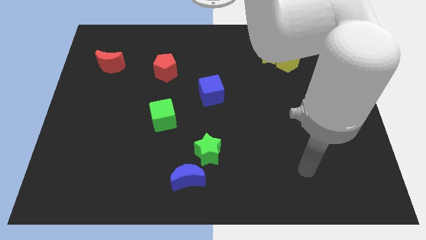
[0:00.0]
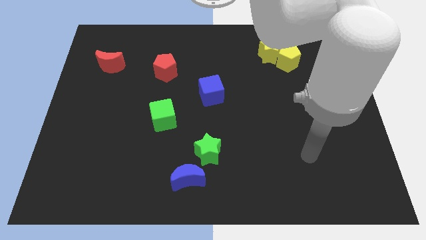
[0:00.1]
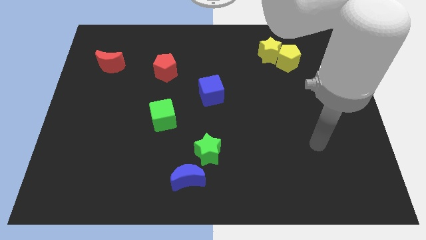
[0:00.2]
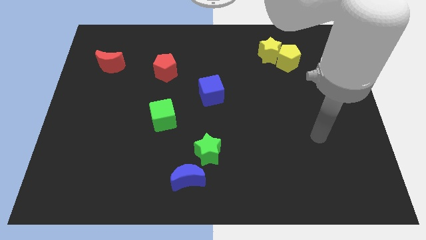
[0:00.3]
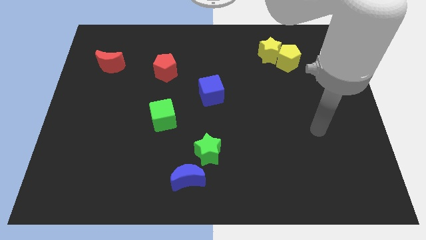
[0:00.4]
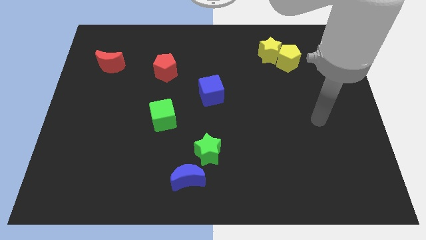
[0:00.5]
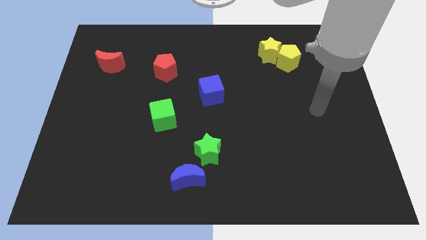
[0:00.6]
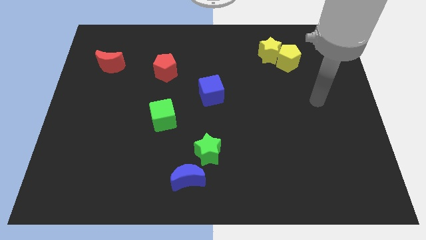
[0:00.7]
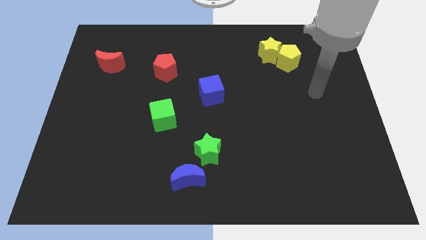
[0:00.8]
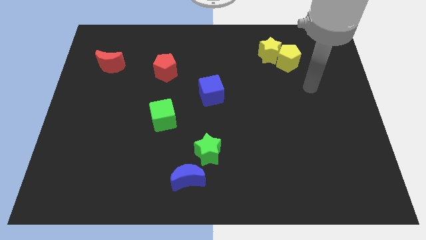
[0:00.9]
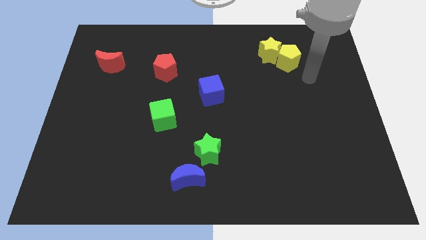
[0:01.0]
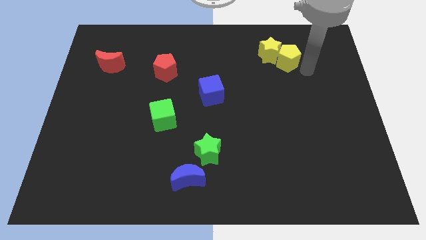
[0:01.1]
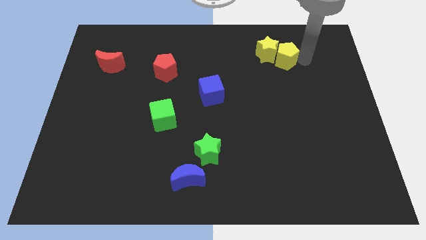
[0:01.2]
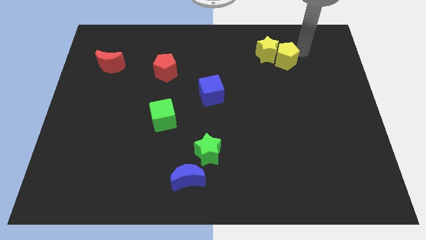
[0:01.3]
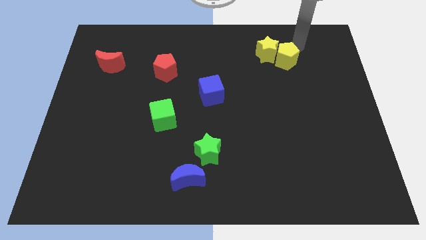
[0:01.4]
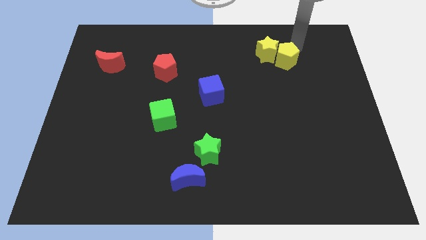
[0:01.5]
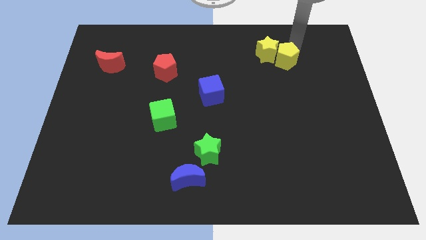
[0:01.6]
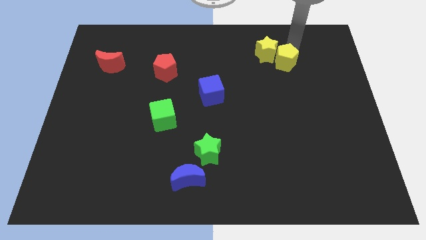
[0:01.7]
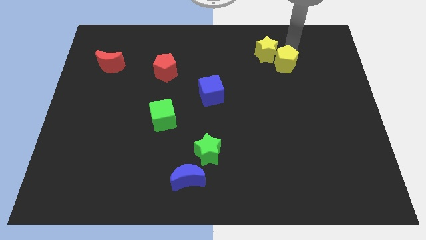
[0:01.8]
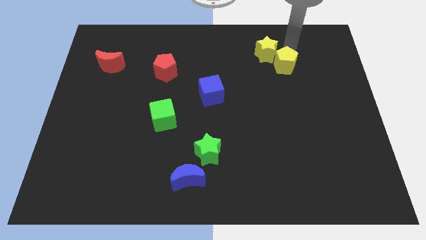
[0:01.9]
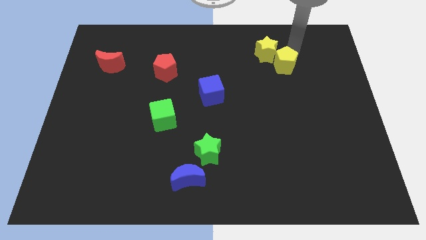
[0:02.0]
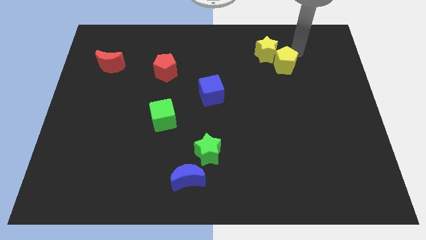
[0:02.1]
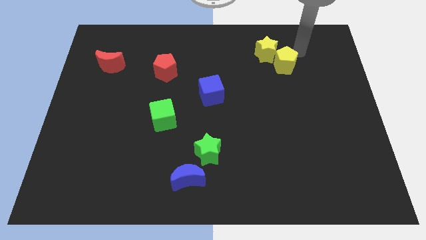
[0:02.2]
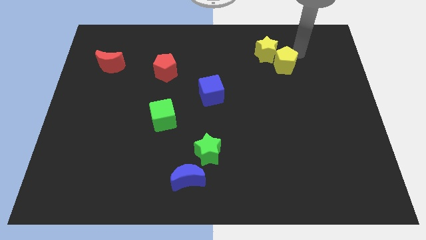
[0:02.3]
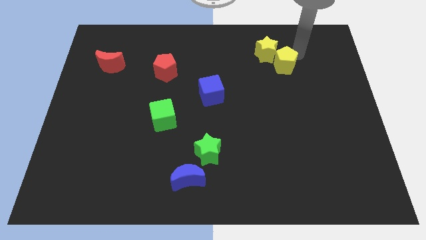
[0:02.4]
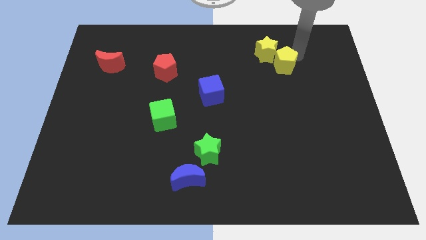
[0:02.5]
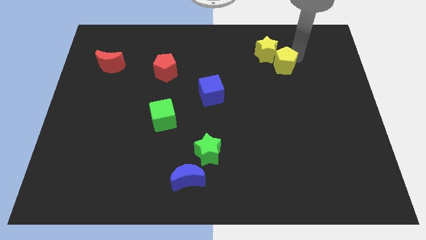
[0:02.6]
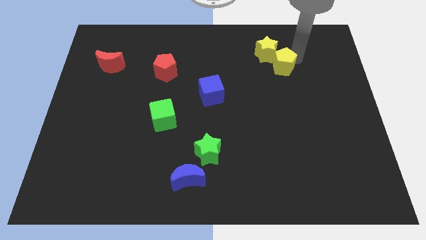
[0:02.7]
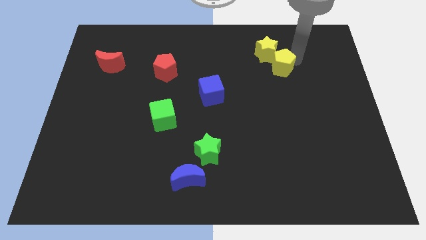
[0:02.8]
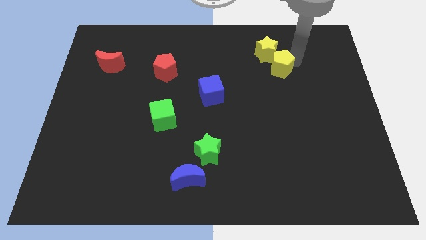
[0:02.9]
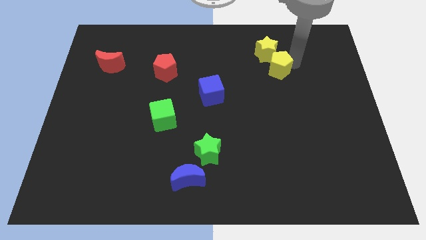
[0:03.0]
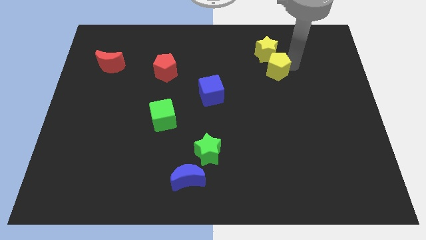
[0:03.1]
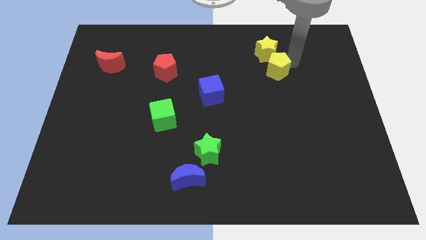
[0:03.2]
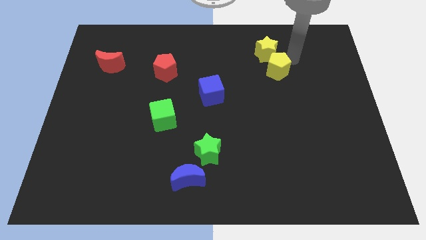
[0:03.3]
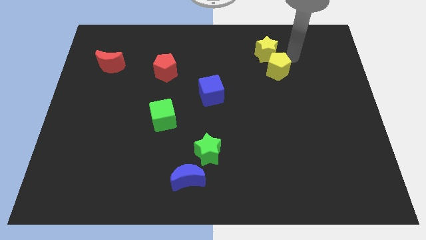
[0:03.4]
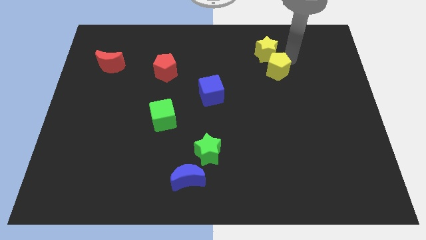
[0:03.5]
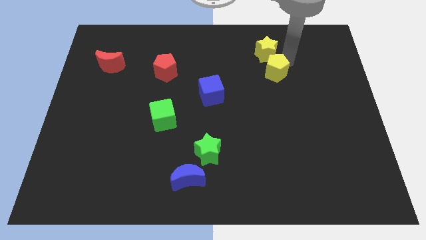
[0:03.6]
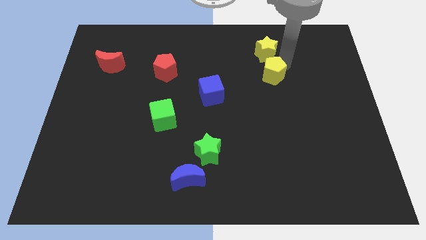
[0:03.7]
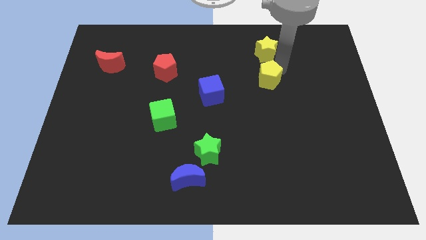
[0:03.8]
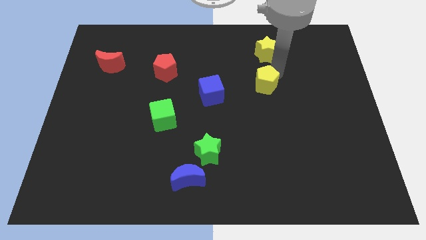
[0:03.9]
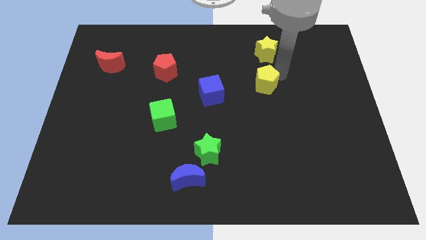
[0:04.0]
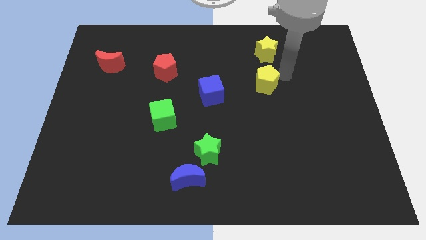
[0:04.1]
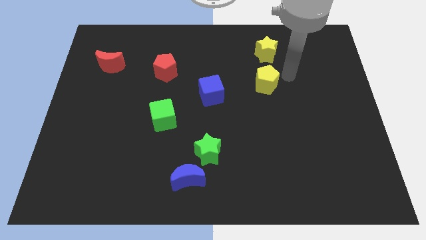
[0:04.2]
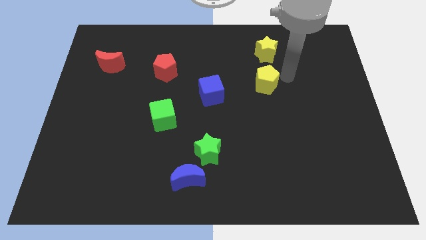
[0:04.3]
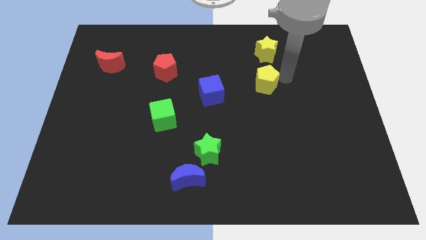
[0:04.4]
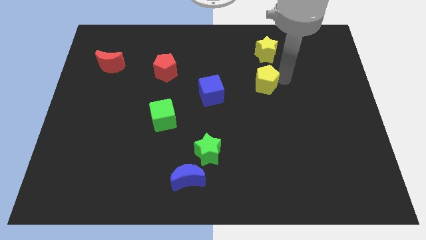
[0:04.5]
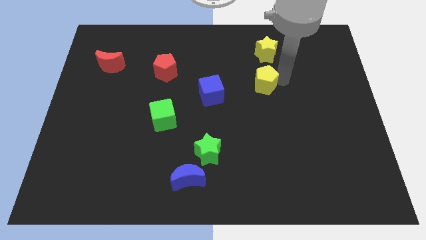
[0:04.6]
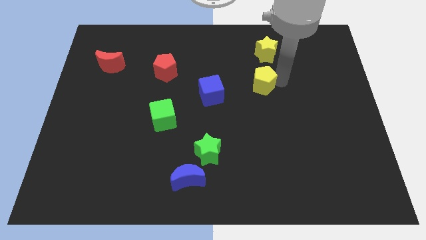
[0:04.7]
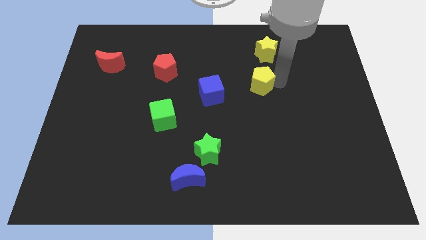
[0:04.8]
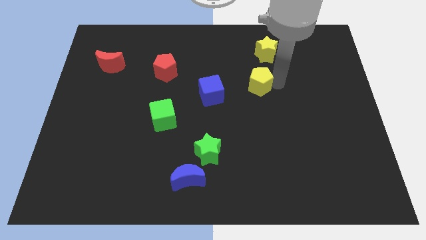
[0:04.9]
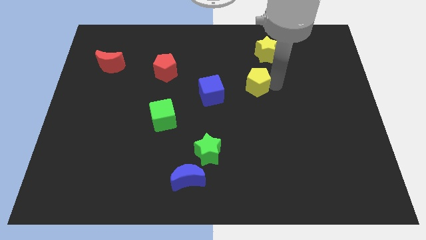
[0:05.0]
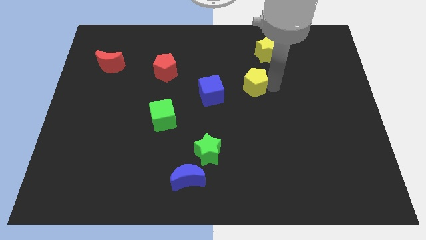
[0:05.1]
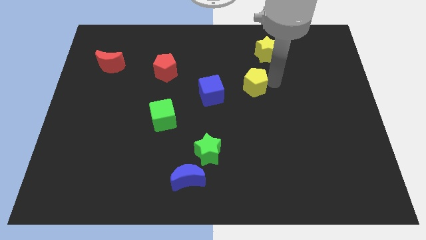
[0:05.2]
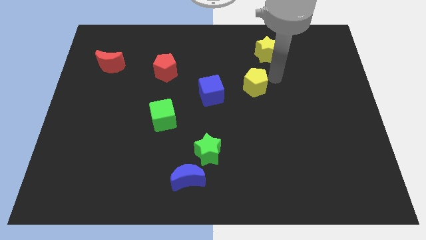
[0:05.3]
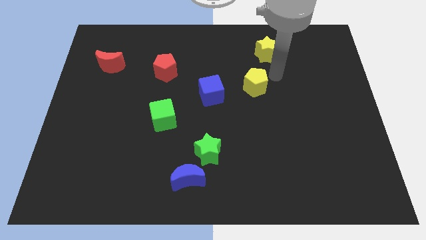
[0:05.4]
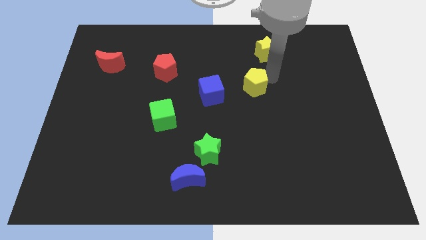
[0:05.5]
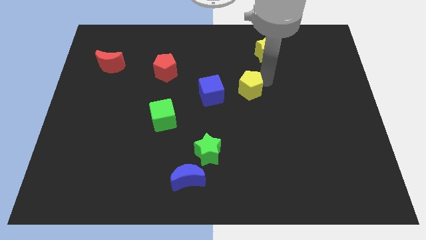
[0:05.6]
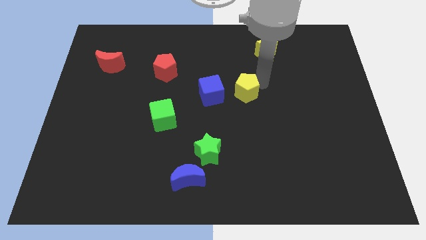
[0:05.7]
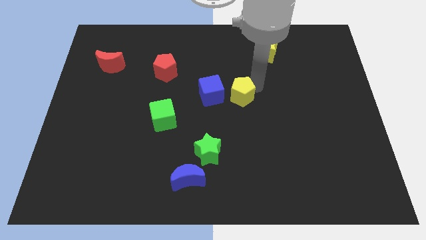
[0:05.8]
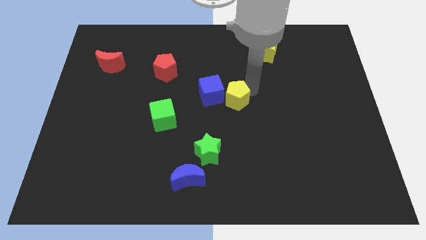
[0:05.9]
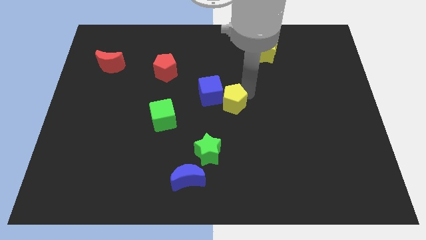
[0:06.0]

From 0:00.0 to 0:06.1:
move the yellow pentagon diagonally downwards and left

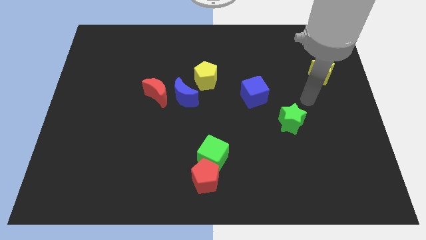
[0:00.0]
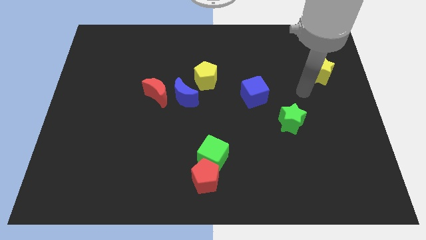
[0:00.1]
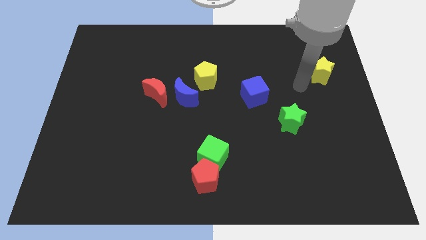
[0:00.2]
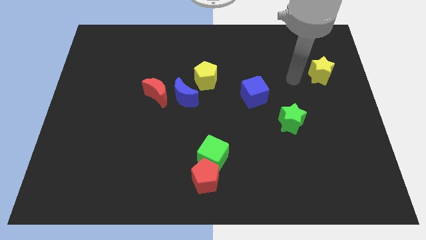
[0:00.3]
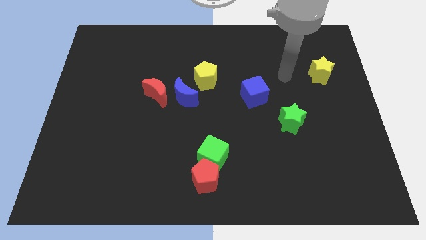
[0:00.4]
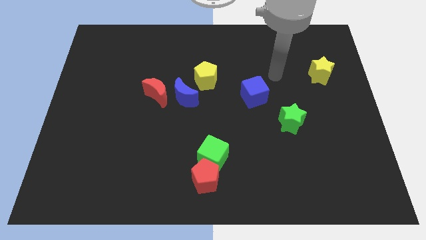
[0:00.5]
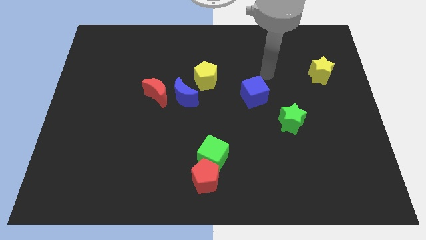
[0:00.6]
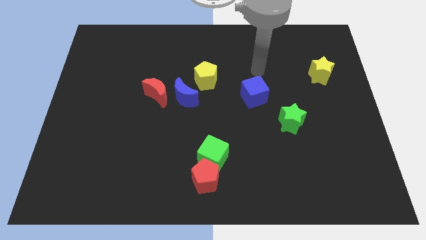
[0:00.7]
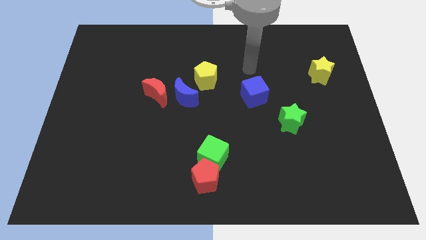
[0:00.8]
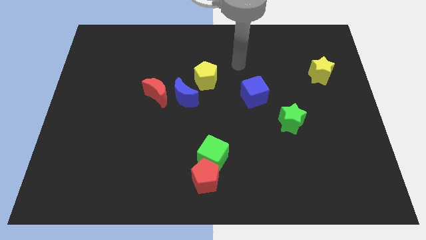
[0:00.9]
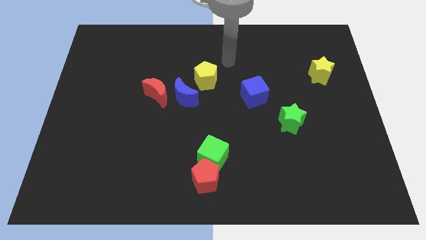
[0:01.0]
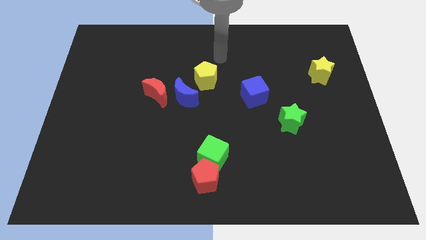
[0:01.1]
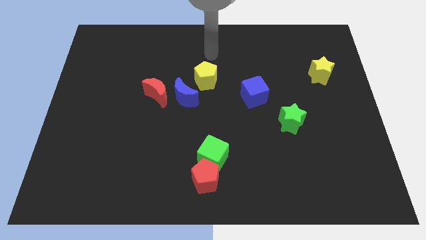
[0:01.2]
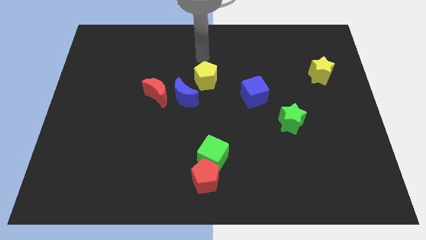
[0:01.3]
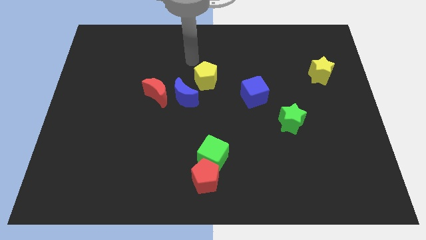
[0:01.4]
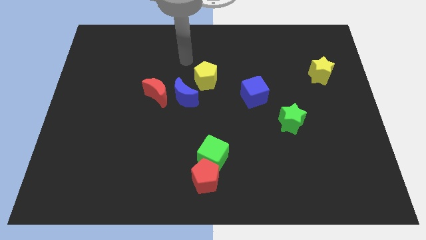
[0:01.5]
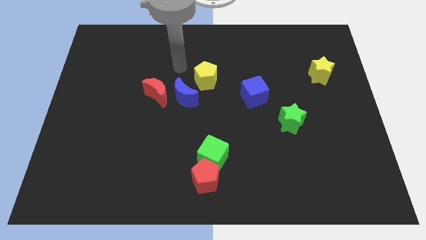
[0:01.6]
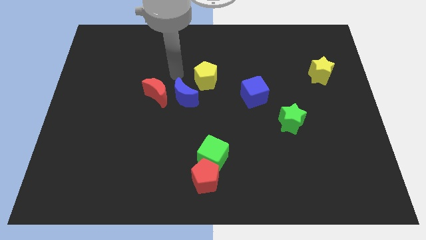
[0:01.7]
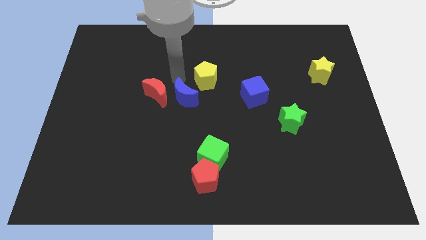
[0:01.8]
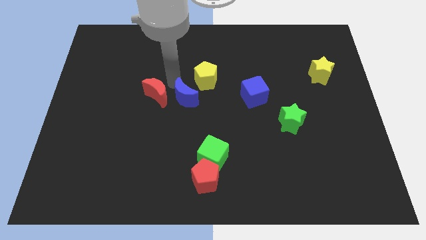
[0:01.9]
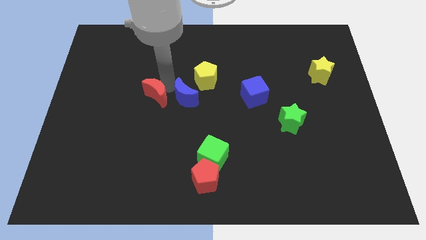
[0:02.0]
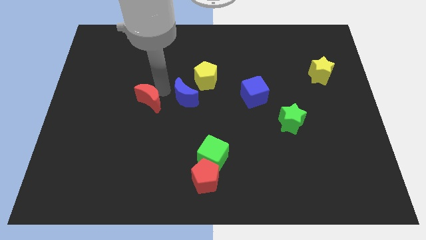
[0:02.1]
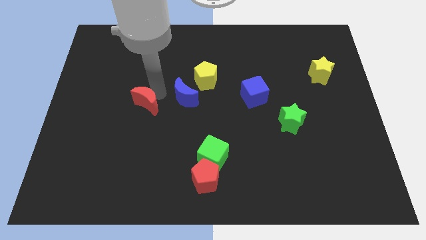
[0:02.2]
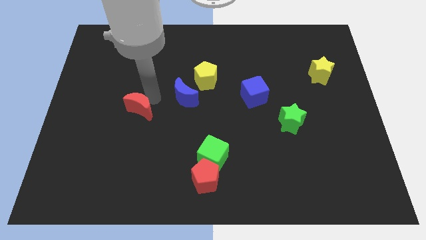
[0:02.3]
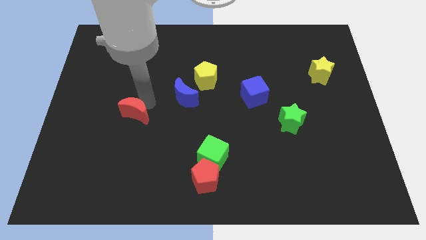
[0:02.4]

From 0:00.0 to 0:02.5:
move the red moon downwards and to the left diagonally slightly
